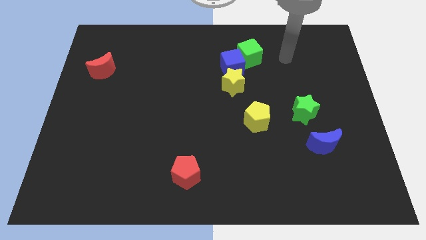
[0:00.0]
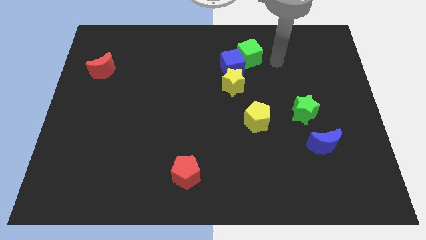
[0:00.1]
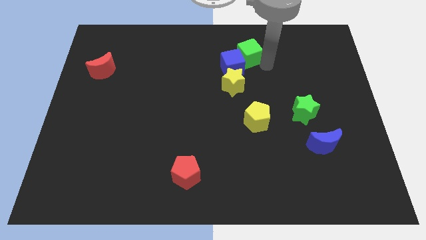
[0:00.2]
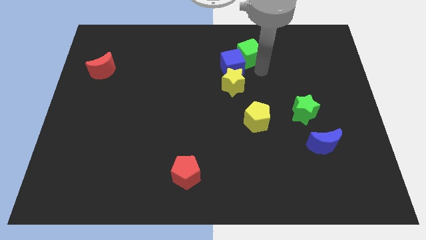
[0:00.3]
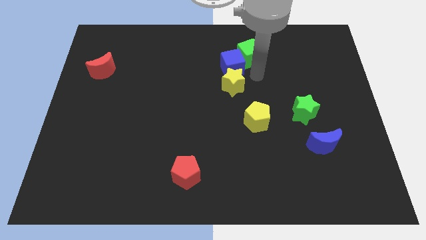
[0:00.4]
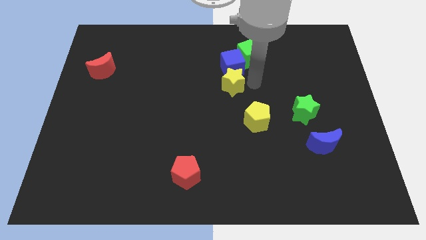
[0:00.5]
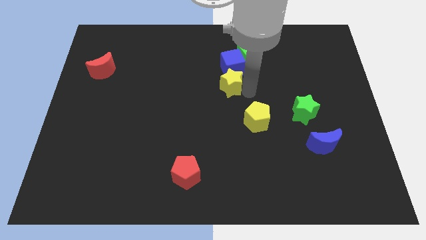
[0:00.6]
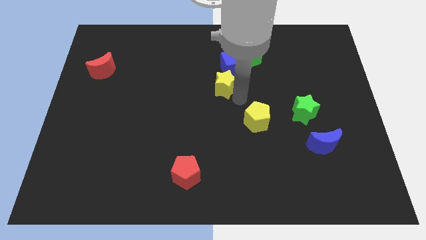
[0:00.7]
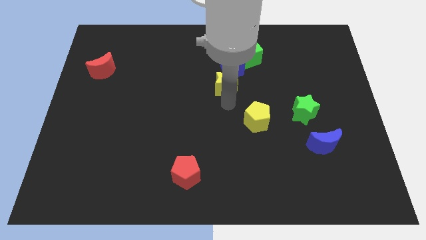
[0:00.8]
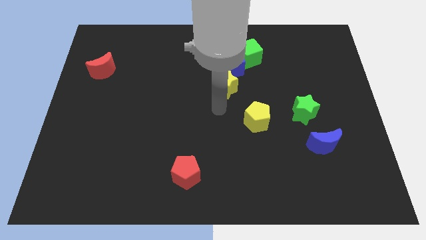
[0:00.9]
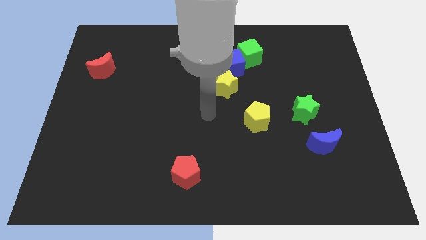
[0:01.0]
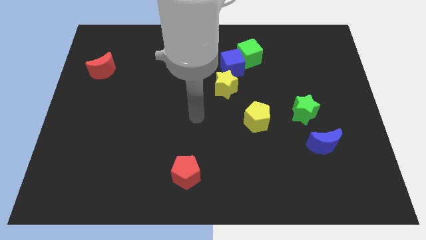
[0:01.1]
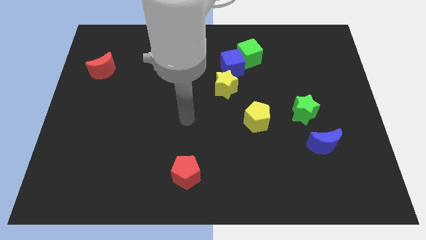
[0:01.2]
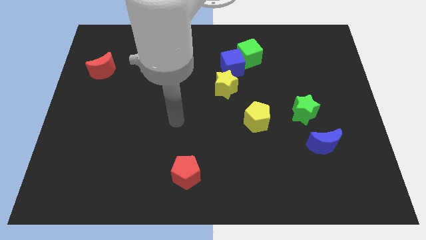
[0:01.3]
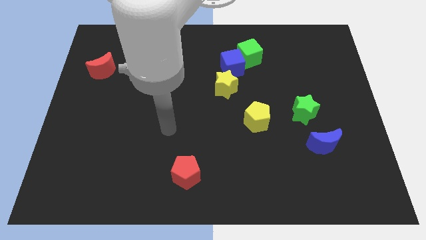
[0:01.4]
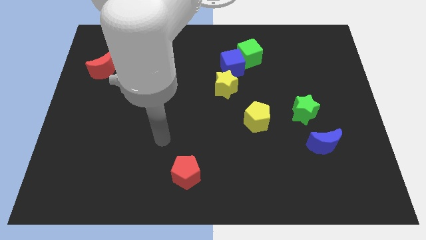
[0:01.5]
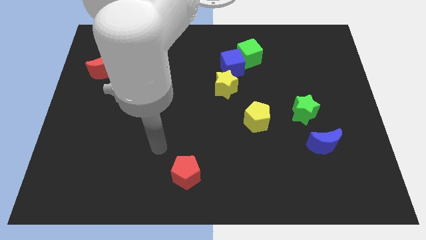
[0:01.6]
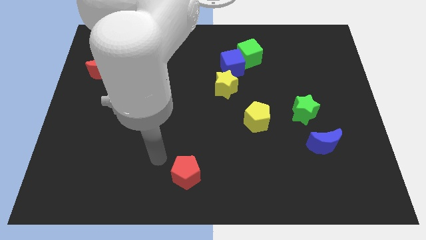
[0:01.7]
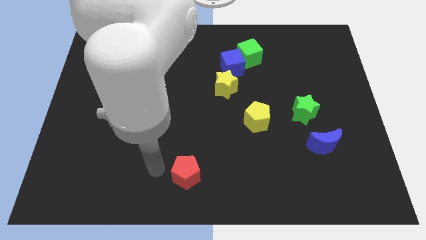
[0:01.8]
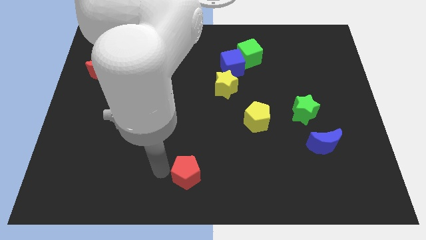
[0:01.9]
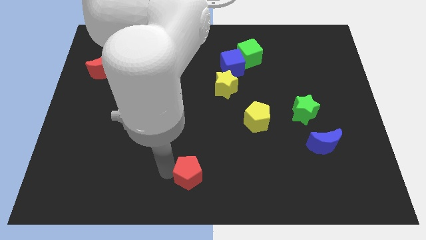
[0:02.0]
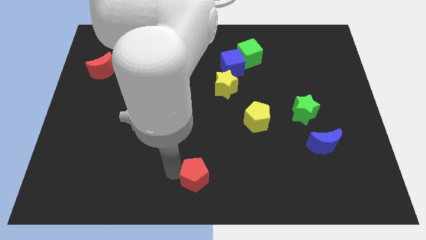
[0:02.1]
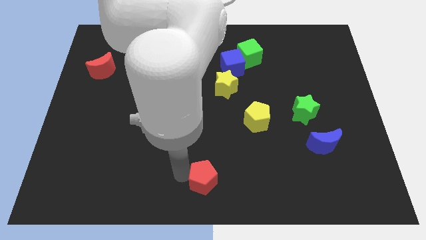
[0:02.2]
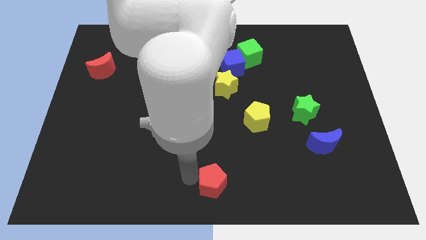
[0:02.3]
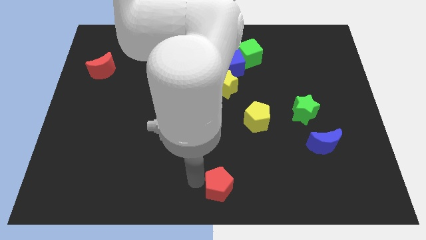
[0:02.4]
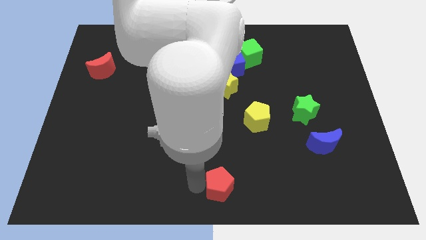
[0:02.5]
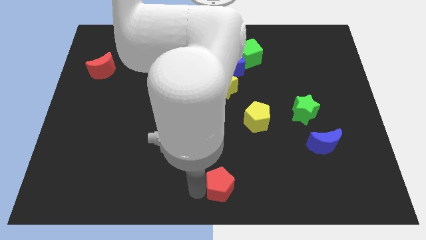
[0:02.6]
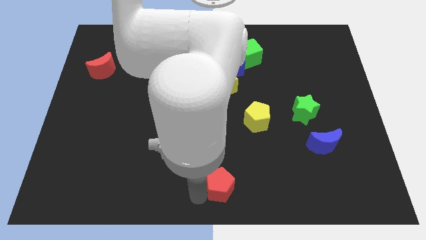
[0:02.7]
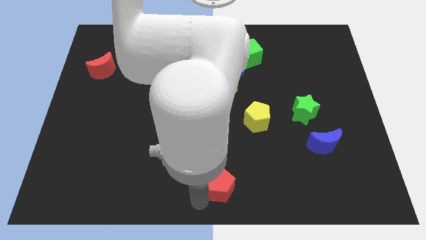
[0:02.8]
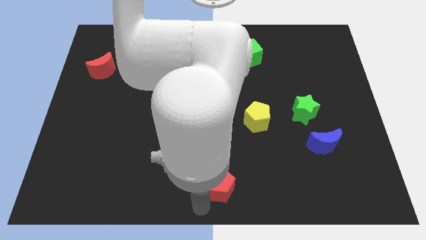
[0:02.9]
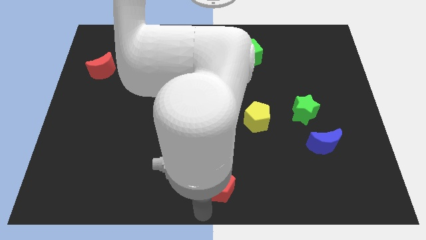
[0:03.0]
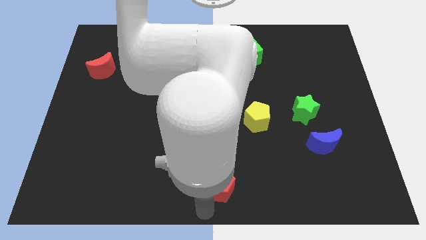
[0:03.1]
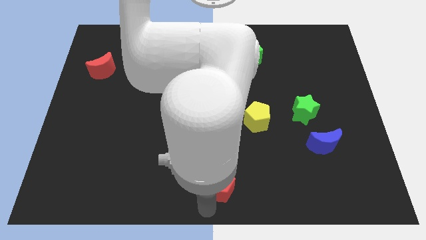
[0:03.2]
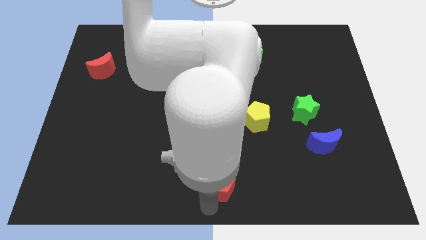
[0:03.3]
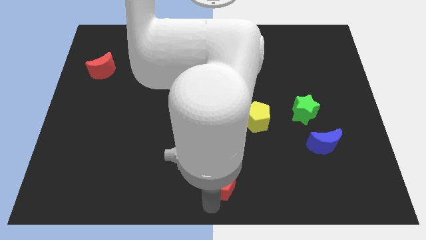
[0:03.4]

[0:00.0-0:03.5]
push the red pentagon a little bit to the right

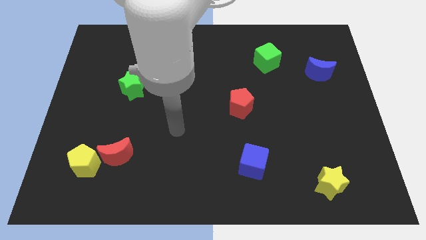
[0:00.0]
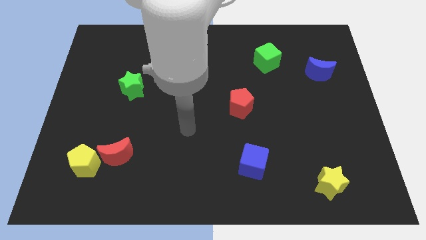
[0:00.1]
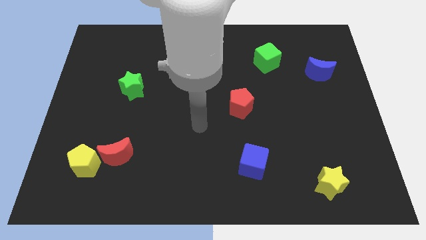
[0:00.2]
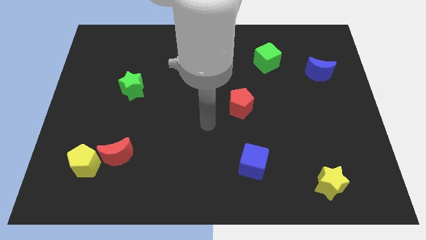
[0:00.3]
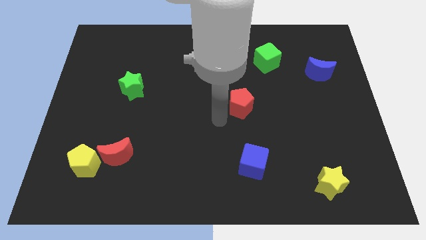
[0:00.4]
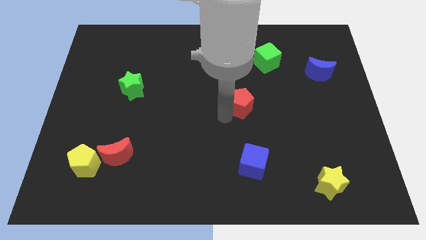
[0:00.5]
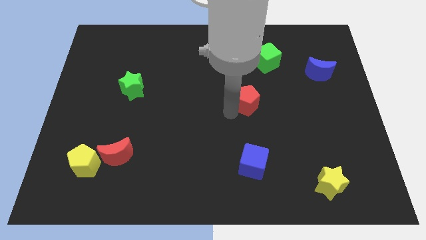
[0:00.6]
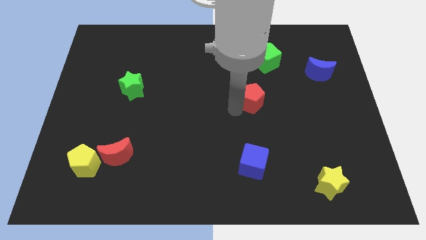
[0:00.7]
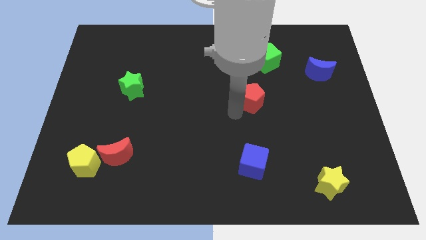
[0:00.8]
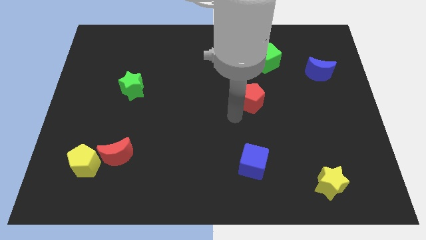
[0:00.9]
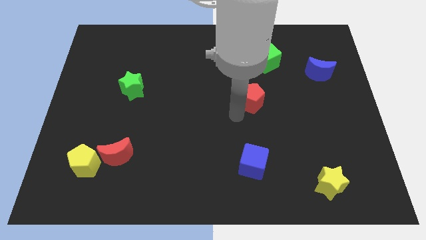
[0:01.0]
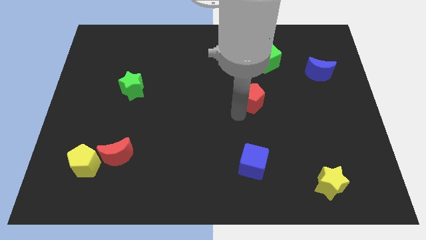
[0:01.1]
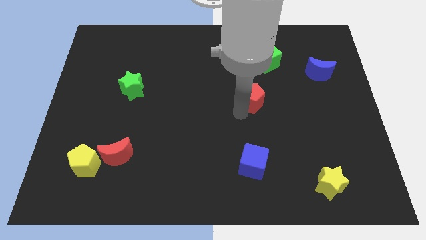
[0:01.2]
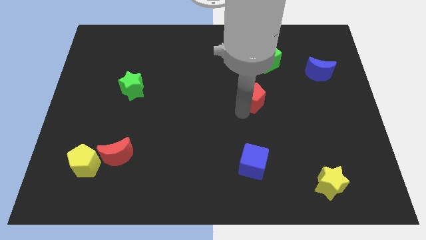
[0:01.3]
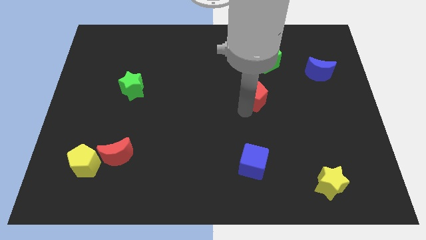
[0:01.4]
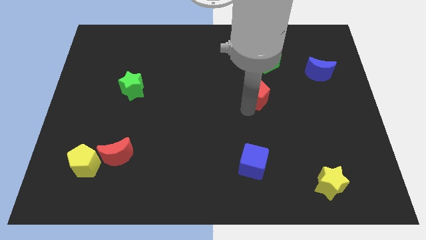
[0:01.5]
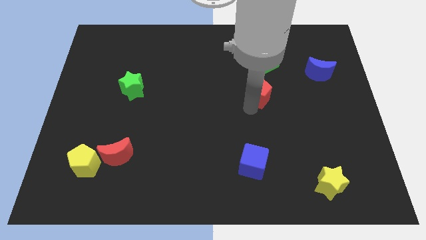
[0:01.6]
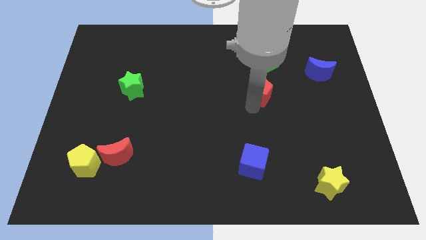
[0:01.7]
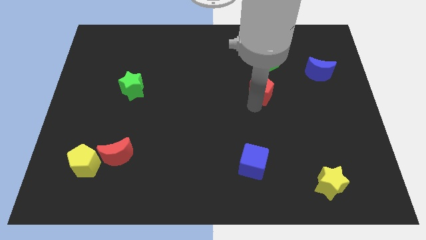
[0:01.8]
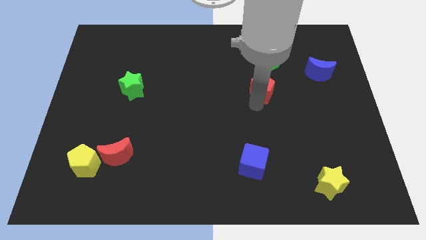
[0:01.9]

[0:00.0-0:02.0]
slide the red pentagon upwards and to the right diagonally slightly

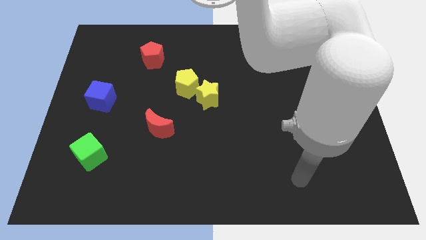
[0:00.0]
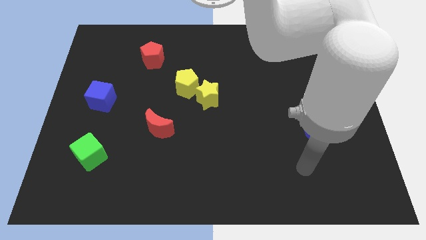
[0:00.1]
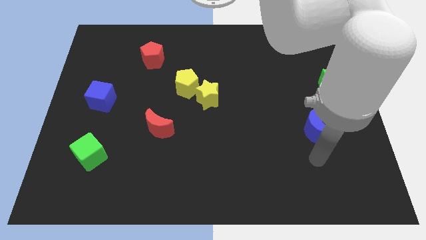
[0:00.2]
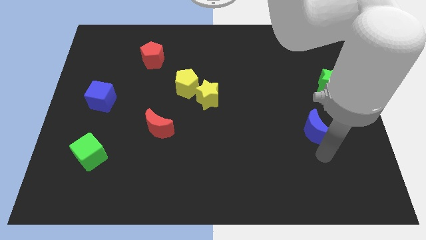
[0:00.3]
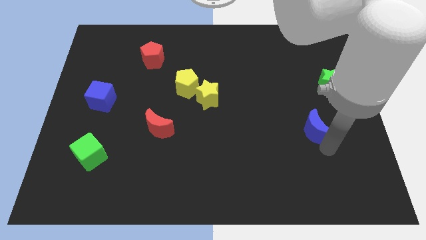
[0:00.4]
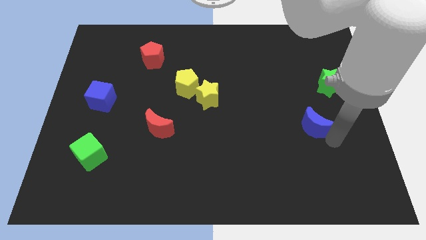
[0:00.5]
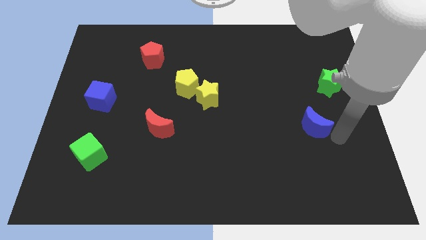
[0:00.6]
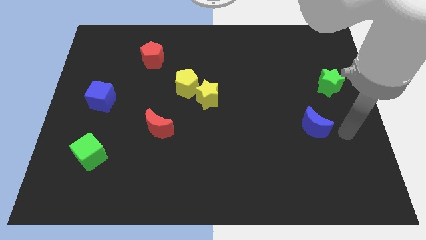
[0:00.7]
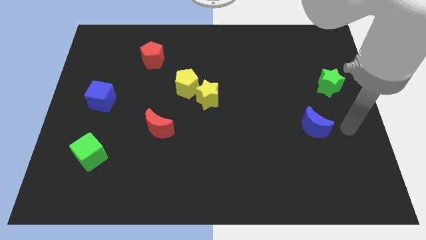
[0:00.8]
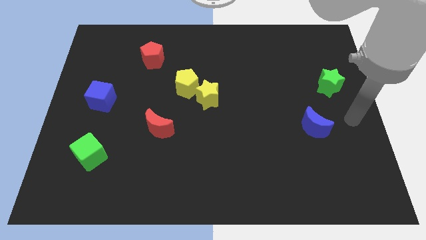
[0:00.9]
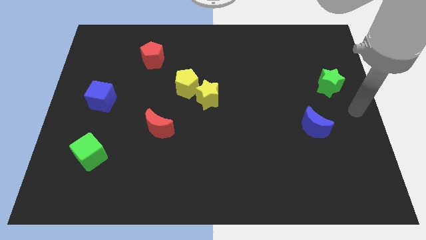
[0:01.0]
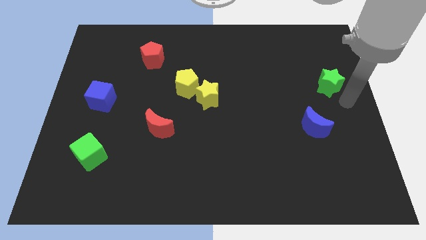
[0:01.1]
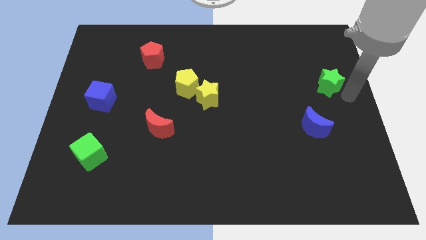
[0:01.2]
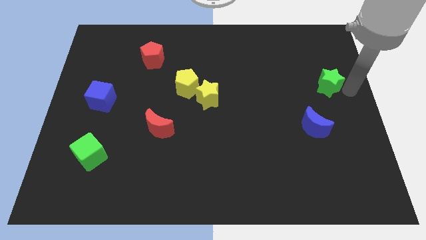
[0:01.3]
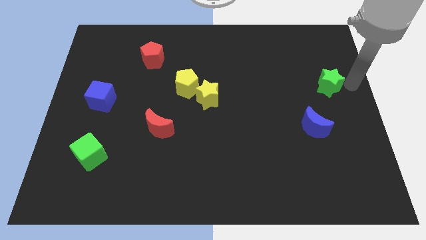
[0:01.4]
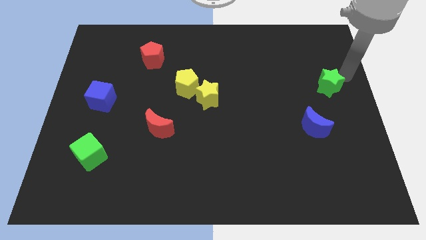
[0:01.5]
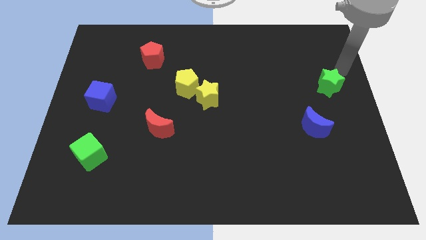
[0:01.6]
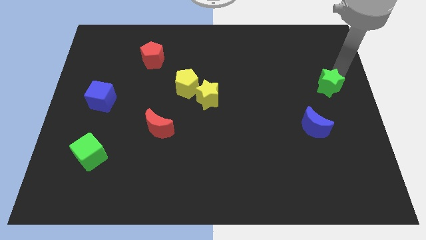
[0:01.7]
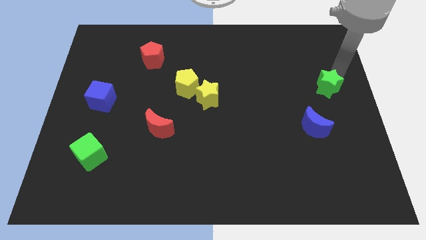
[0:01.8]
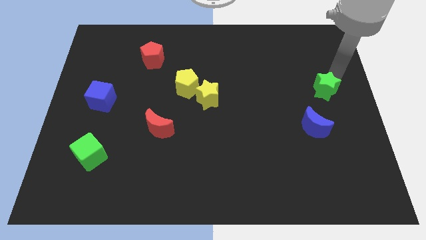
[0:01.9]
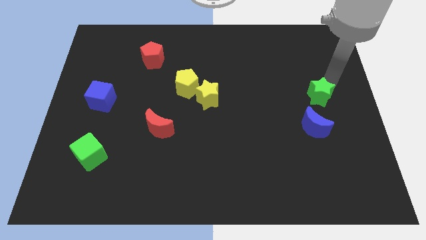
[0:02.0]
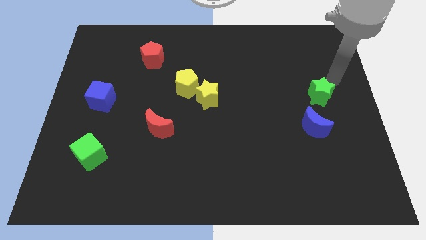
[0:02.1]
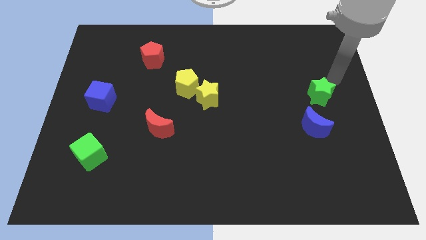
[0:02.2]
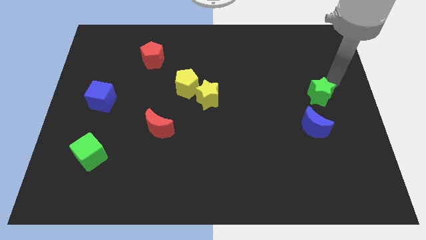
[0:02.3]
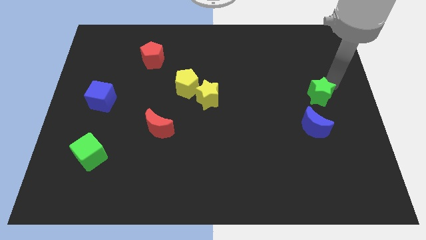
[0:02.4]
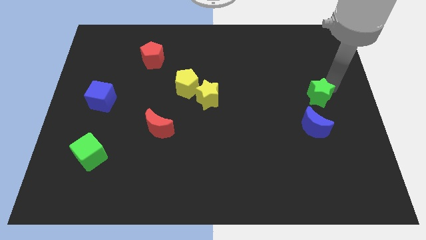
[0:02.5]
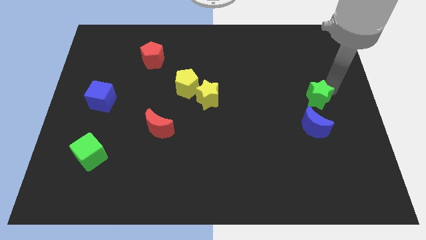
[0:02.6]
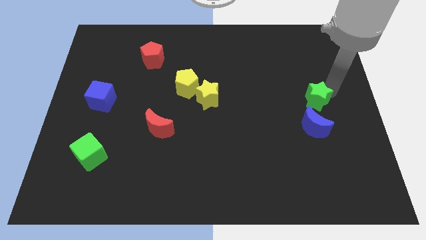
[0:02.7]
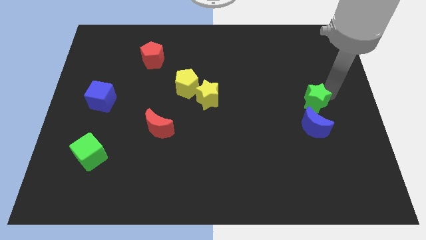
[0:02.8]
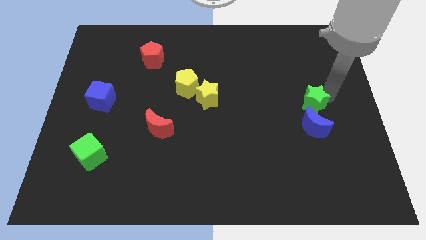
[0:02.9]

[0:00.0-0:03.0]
slightly move the green star diagonally down and to the left

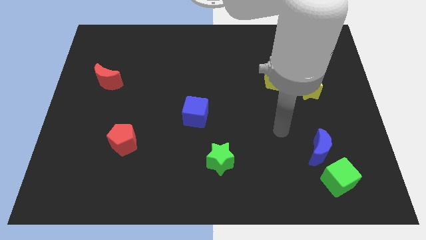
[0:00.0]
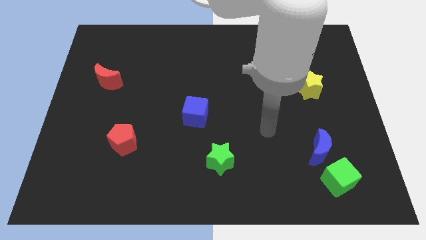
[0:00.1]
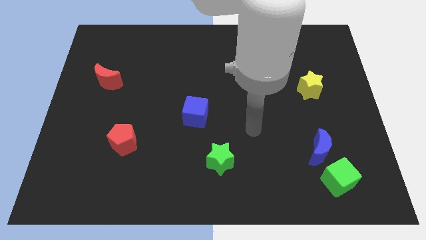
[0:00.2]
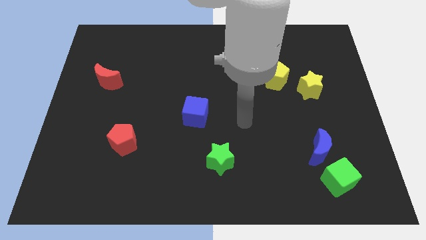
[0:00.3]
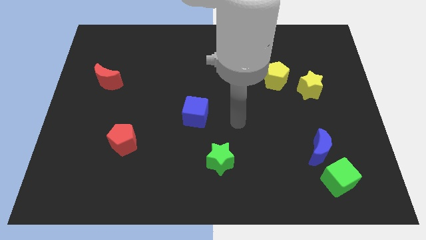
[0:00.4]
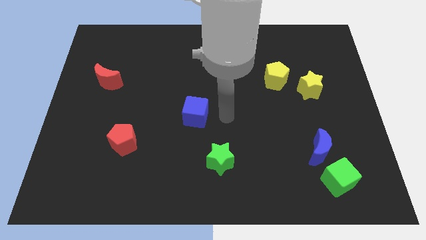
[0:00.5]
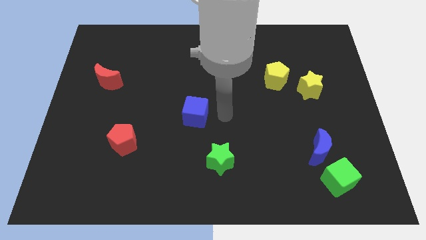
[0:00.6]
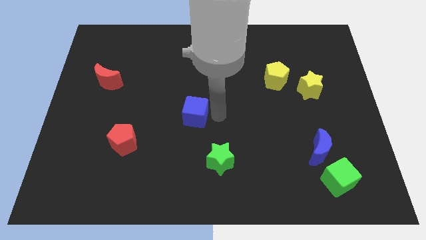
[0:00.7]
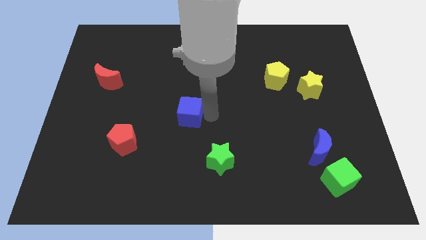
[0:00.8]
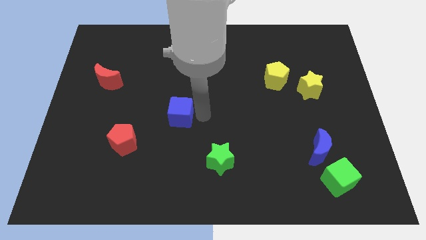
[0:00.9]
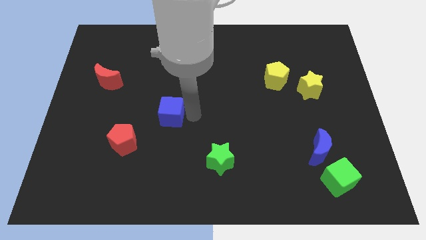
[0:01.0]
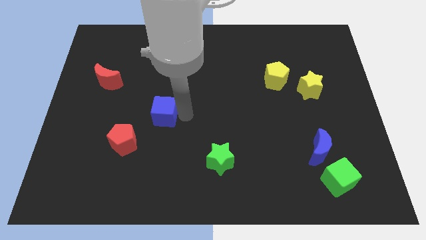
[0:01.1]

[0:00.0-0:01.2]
push the blue cube left somewhat
